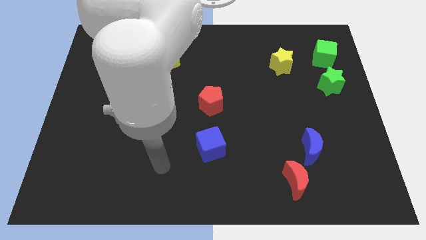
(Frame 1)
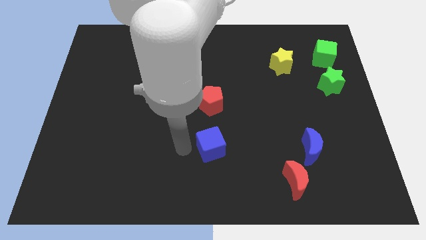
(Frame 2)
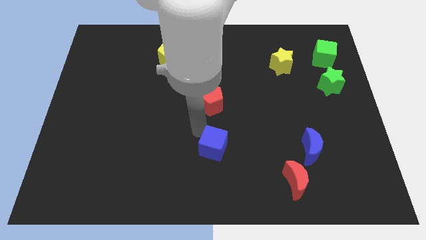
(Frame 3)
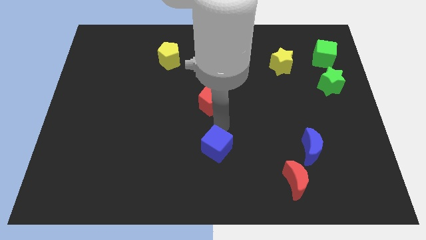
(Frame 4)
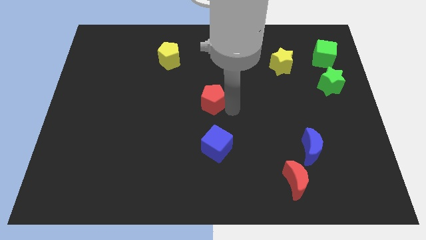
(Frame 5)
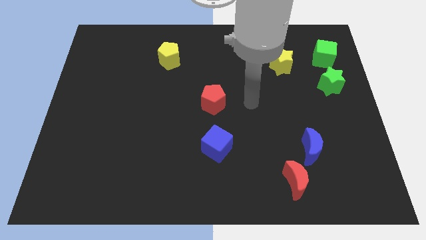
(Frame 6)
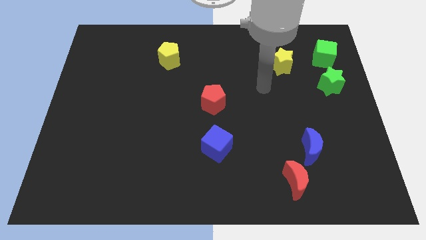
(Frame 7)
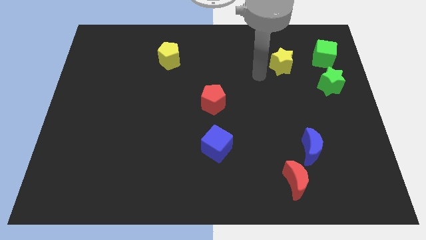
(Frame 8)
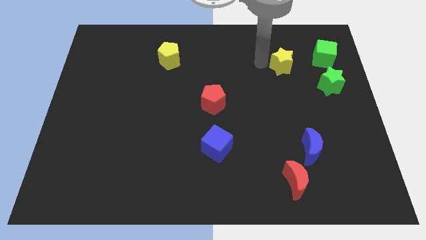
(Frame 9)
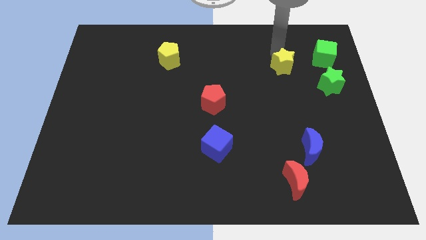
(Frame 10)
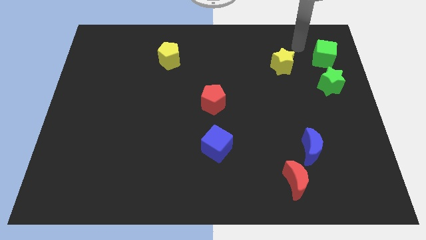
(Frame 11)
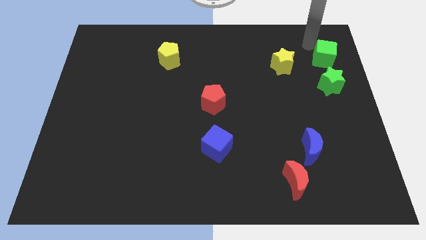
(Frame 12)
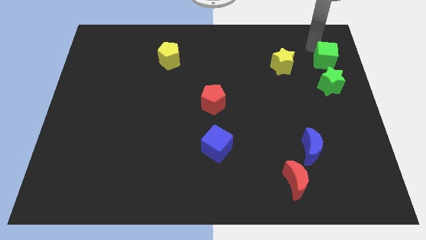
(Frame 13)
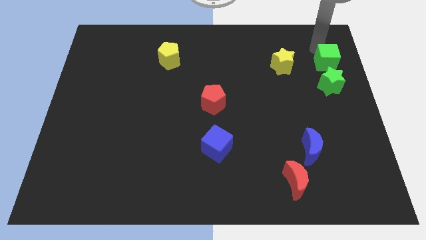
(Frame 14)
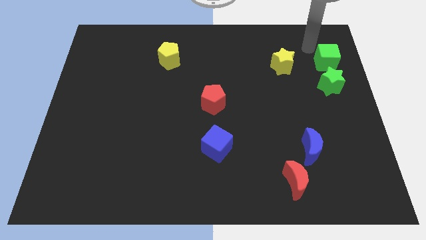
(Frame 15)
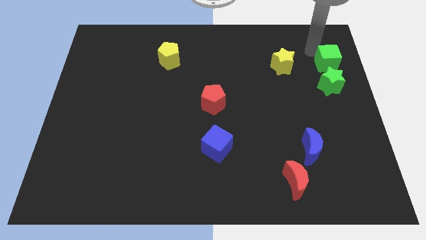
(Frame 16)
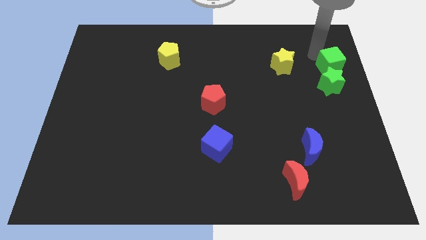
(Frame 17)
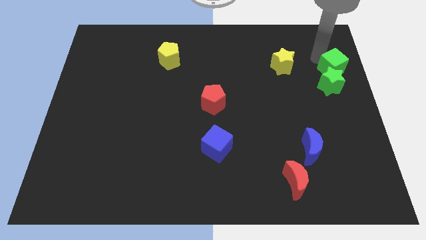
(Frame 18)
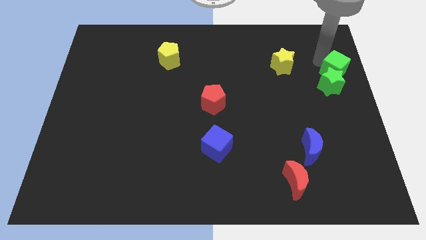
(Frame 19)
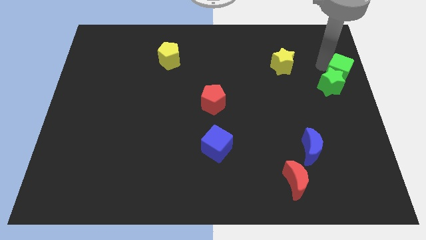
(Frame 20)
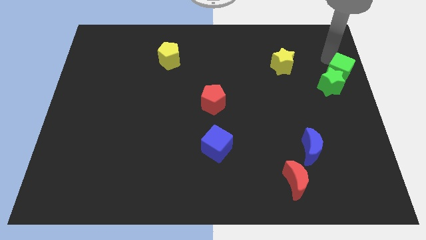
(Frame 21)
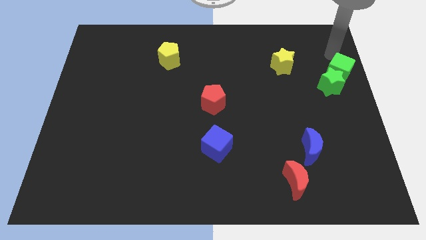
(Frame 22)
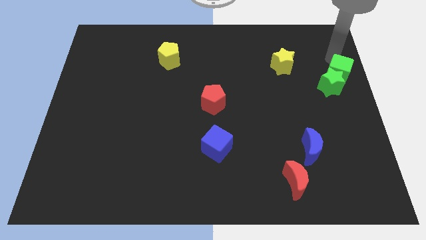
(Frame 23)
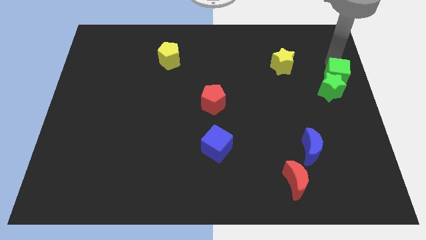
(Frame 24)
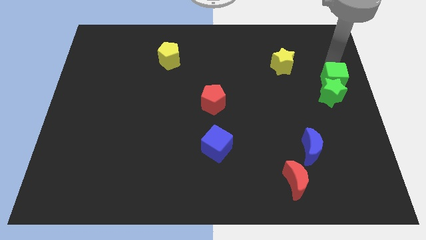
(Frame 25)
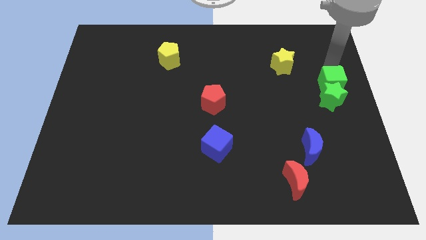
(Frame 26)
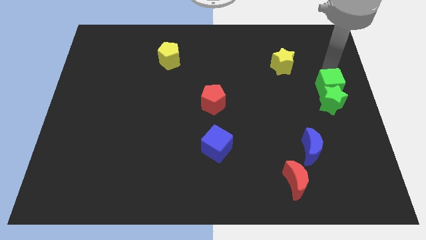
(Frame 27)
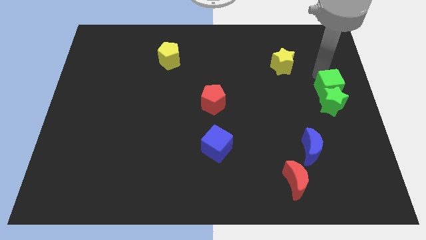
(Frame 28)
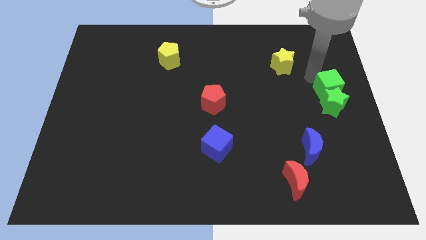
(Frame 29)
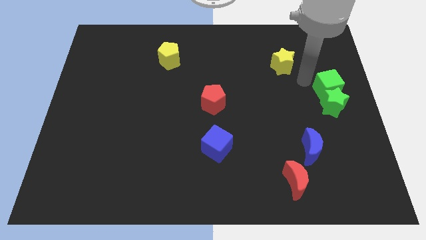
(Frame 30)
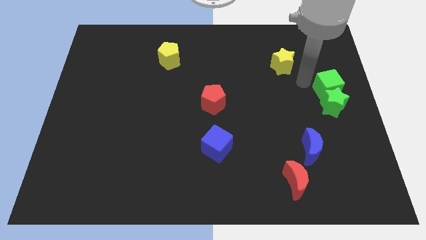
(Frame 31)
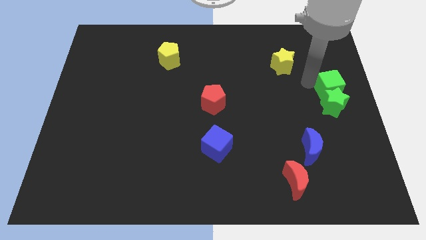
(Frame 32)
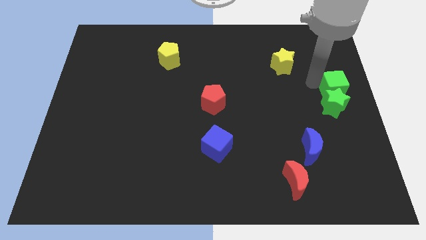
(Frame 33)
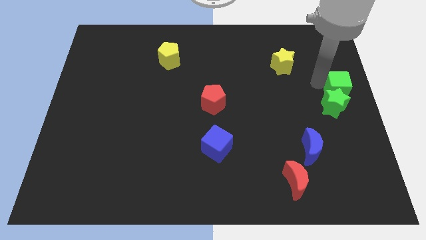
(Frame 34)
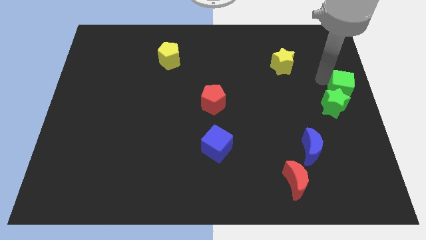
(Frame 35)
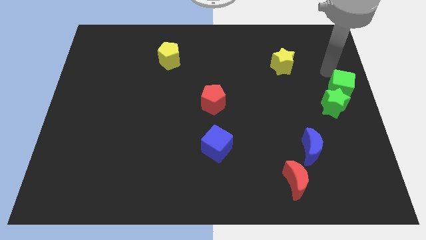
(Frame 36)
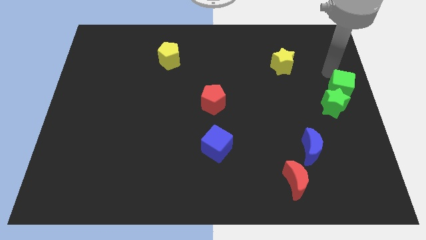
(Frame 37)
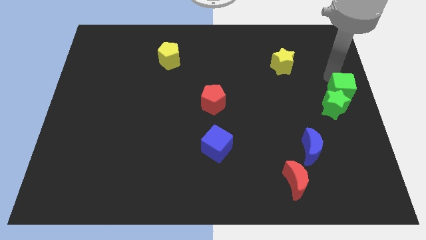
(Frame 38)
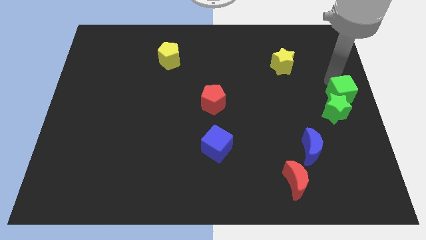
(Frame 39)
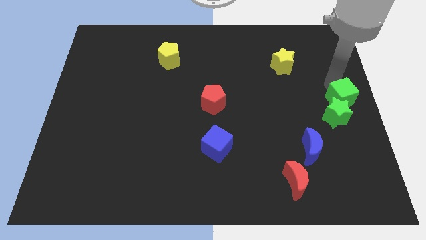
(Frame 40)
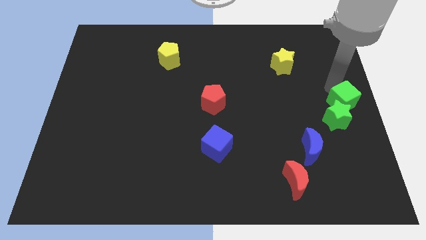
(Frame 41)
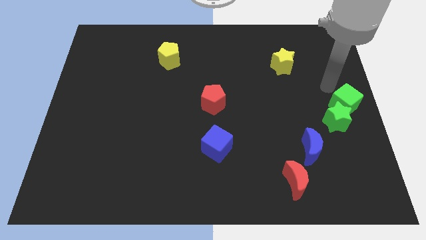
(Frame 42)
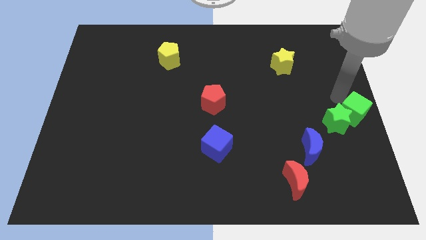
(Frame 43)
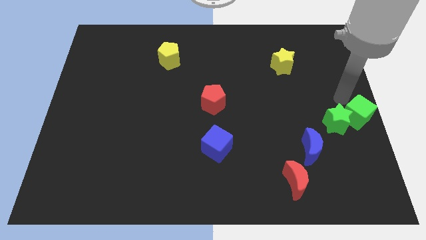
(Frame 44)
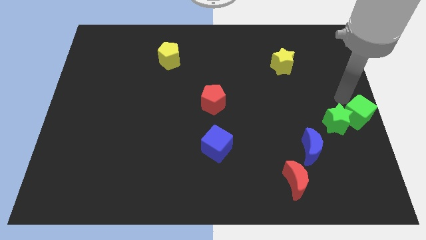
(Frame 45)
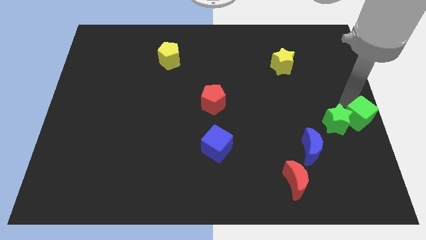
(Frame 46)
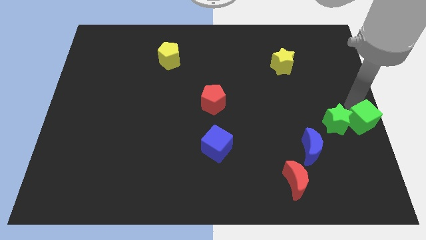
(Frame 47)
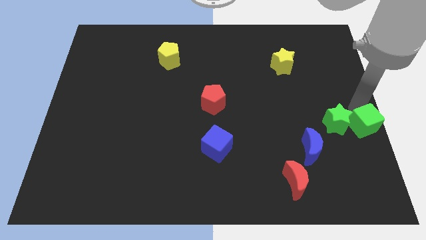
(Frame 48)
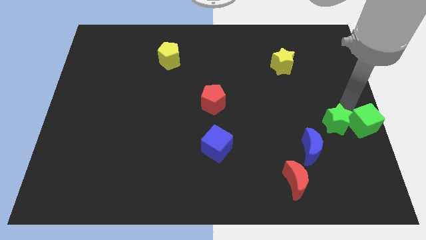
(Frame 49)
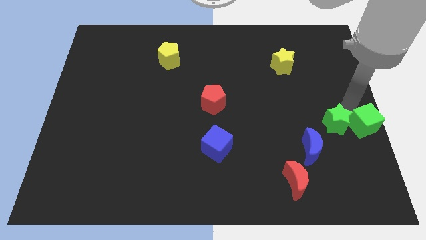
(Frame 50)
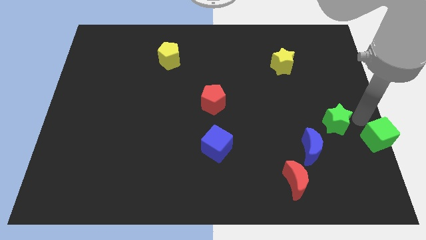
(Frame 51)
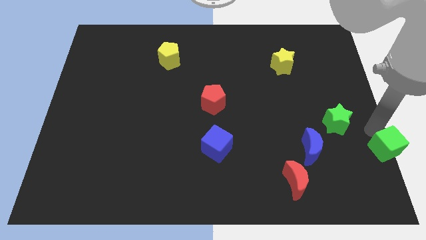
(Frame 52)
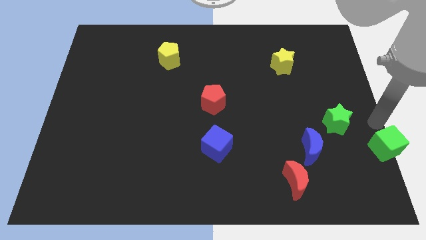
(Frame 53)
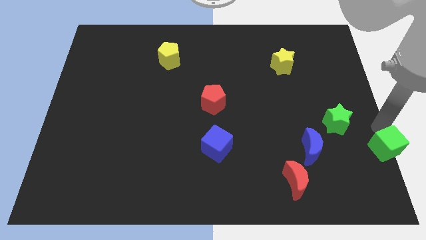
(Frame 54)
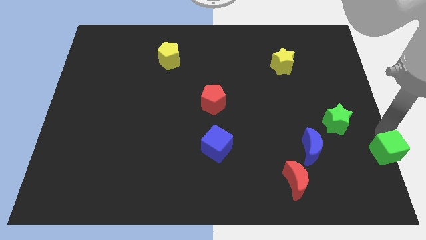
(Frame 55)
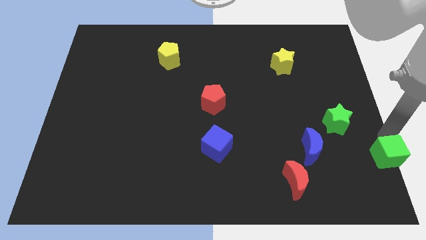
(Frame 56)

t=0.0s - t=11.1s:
move the green cube to the lower right corner
